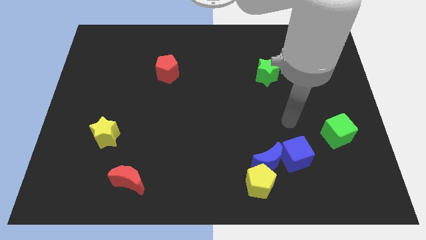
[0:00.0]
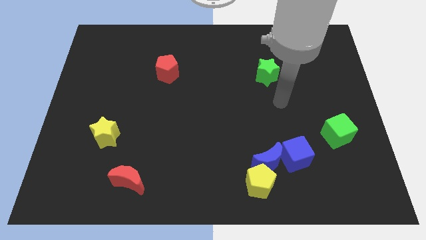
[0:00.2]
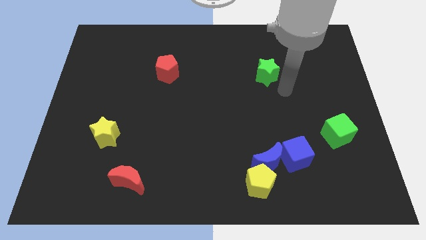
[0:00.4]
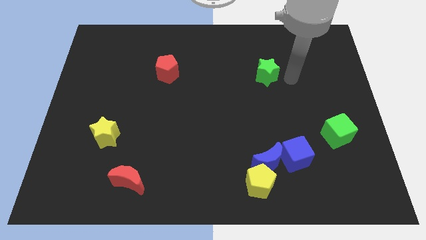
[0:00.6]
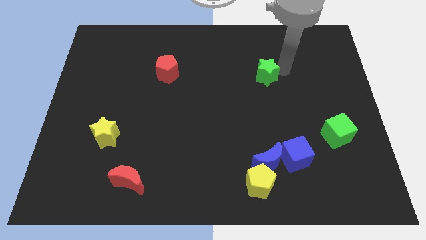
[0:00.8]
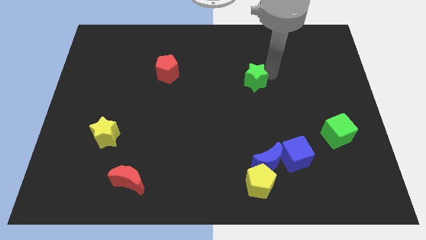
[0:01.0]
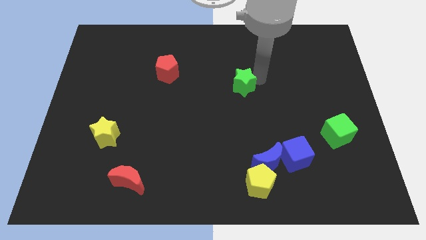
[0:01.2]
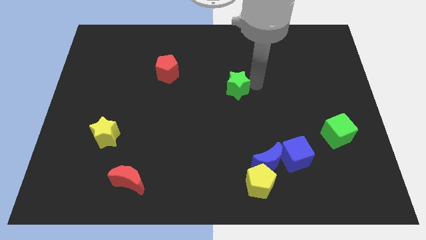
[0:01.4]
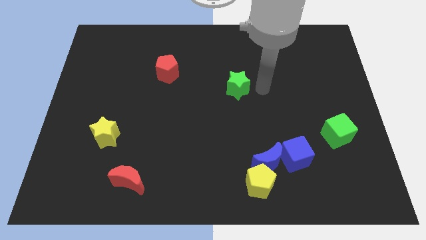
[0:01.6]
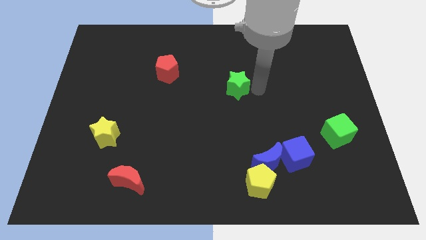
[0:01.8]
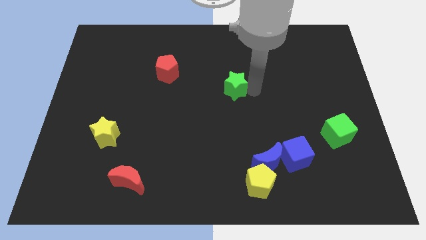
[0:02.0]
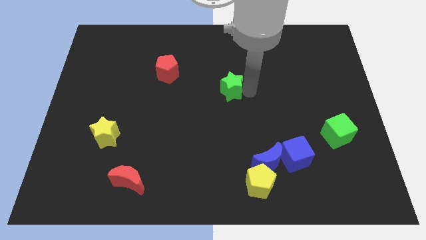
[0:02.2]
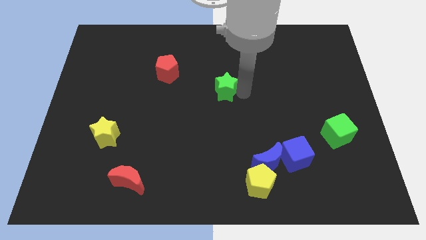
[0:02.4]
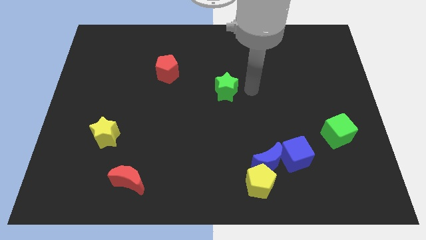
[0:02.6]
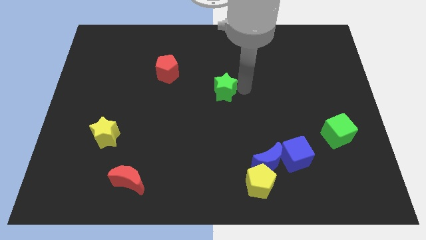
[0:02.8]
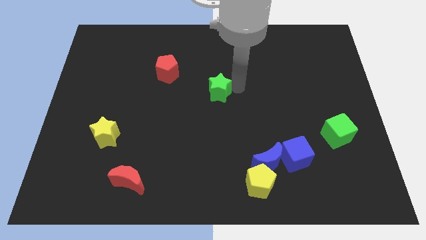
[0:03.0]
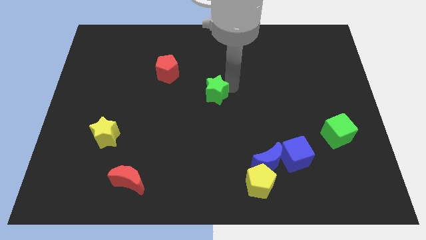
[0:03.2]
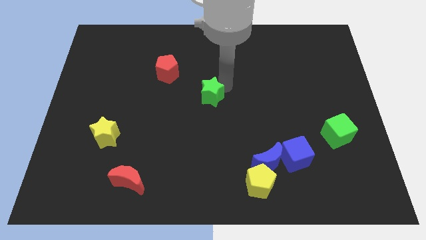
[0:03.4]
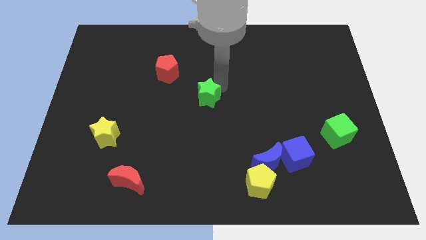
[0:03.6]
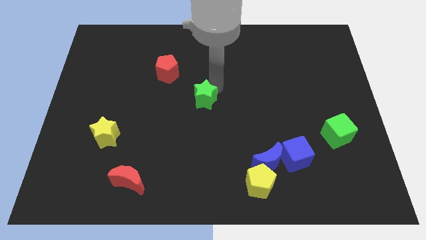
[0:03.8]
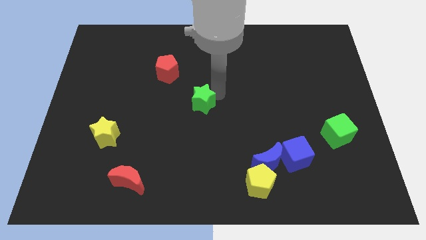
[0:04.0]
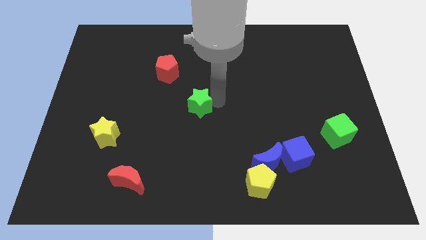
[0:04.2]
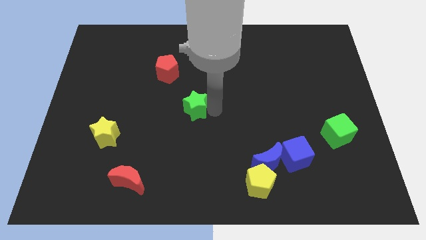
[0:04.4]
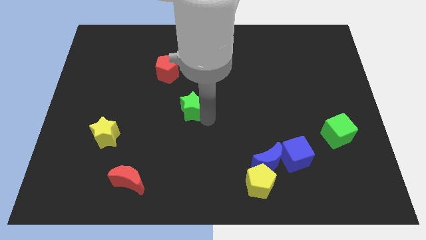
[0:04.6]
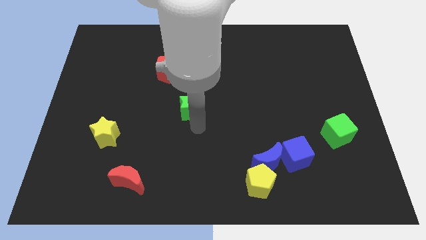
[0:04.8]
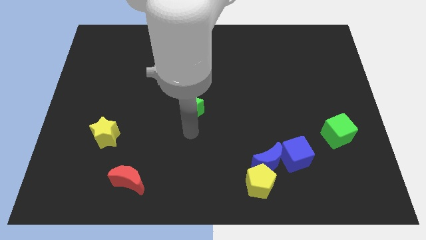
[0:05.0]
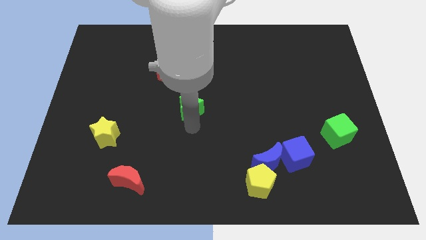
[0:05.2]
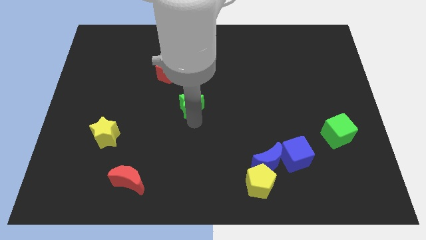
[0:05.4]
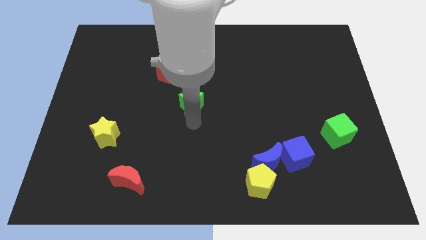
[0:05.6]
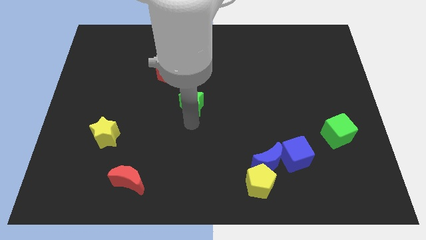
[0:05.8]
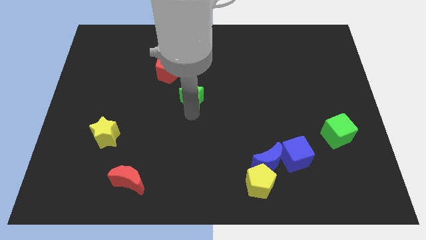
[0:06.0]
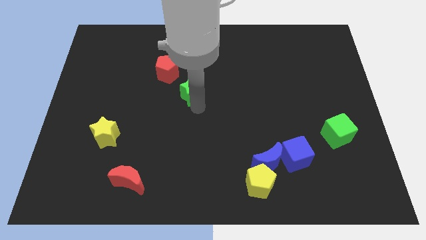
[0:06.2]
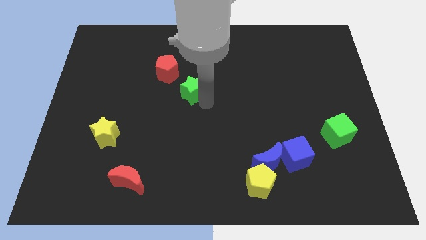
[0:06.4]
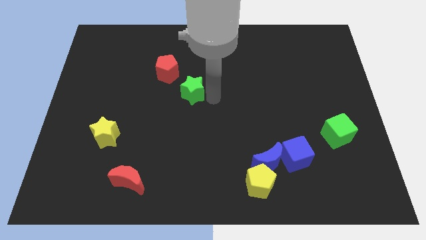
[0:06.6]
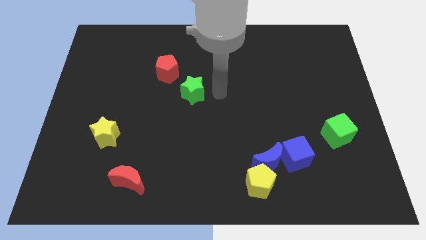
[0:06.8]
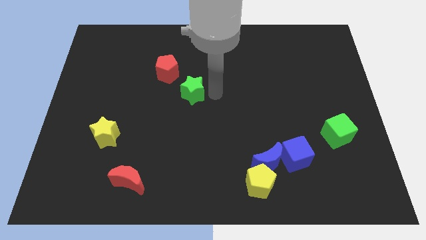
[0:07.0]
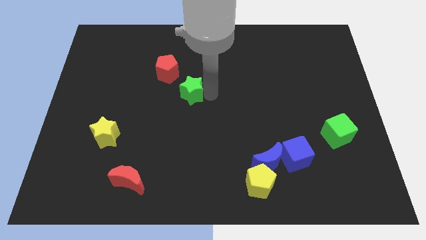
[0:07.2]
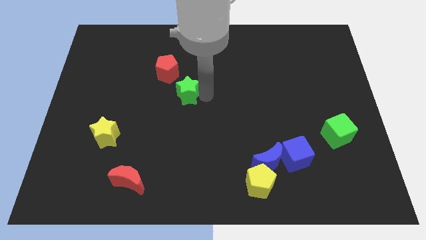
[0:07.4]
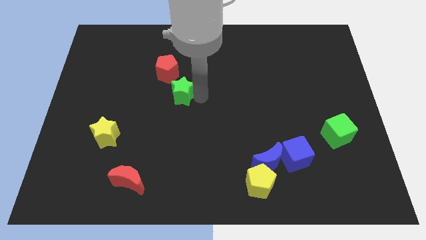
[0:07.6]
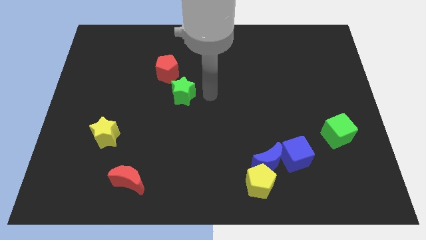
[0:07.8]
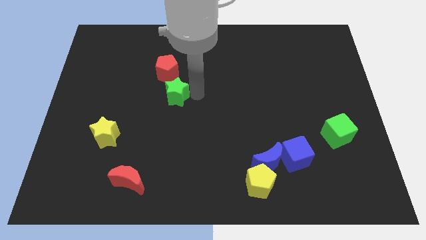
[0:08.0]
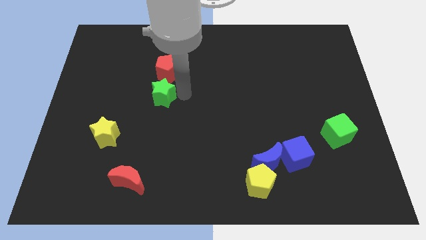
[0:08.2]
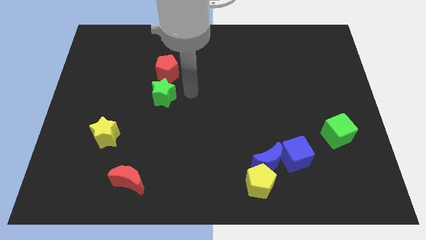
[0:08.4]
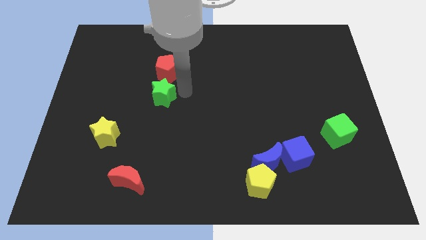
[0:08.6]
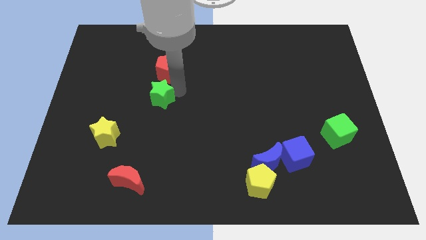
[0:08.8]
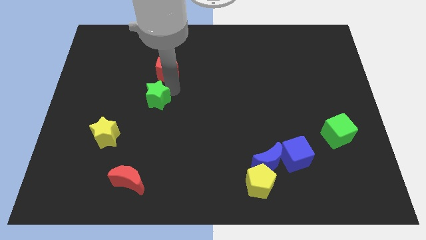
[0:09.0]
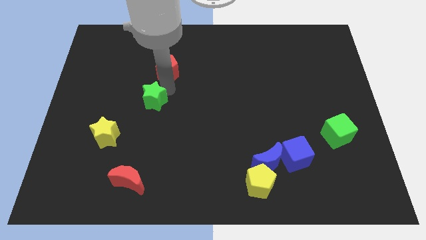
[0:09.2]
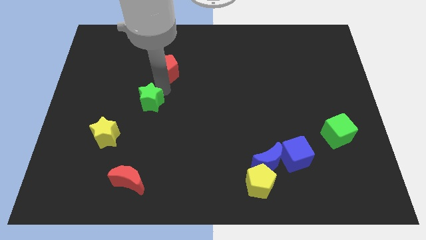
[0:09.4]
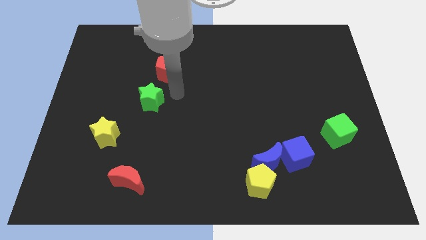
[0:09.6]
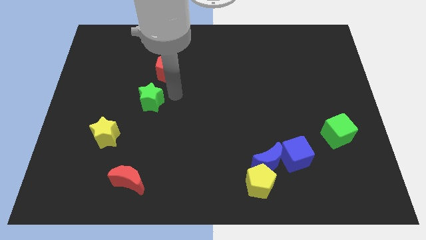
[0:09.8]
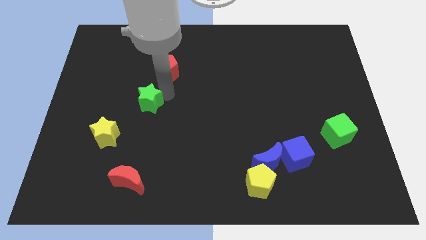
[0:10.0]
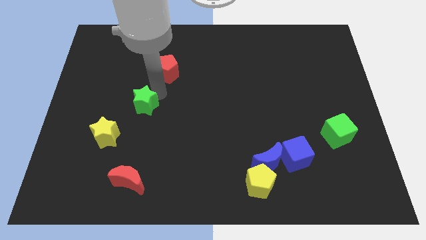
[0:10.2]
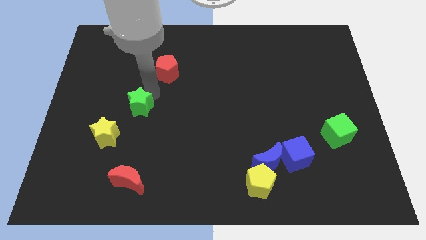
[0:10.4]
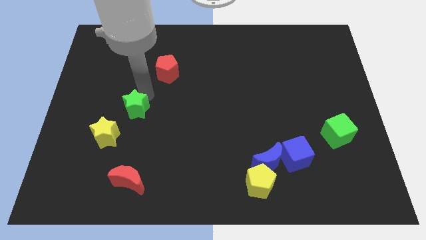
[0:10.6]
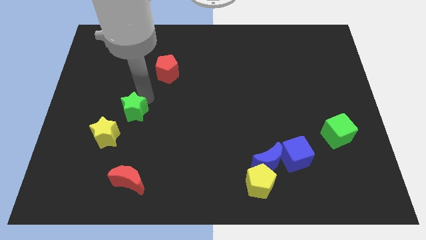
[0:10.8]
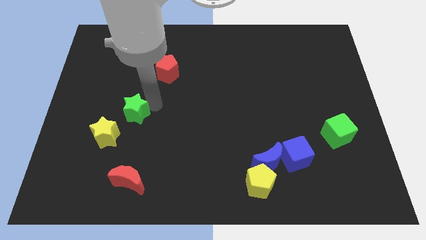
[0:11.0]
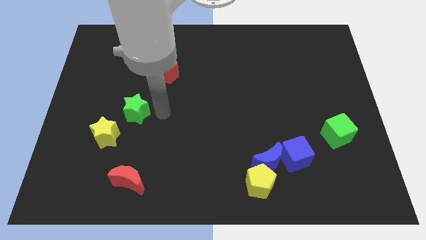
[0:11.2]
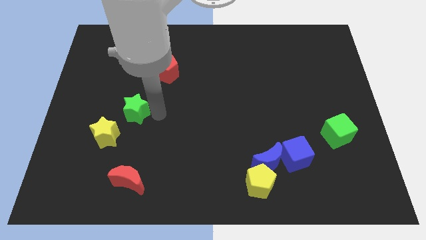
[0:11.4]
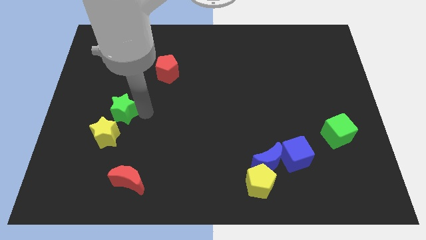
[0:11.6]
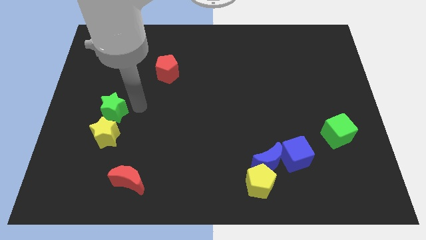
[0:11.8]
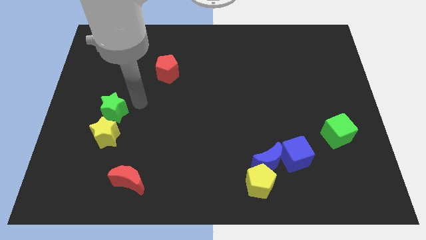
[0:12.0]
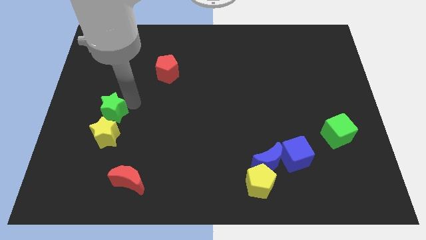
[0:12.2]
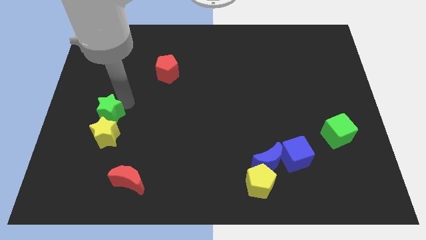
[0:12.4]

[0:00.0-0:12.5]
move the green star diagonally up and to the left of the yellow star

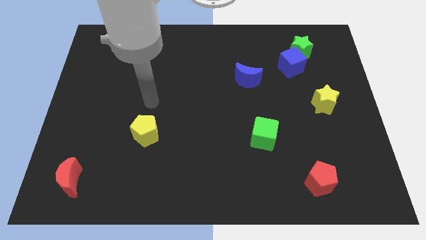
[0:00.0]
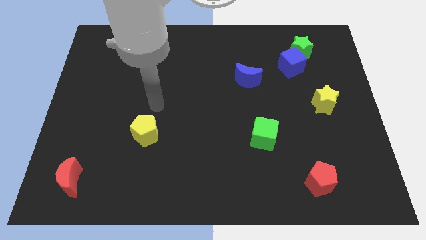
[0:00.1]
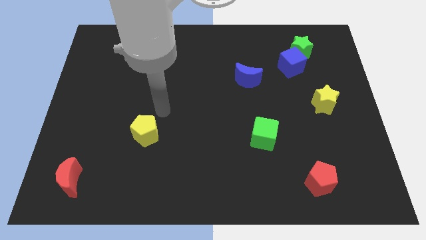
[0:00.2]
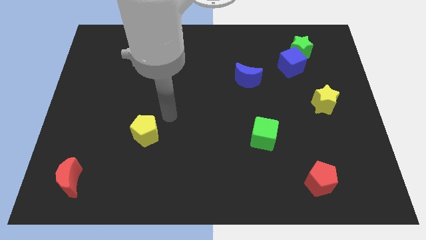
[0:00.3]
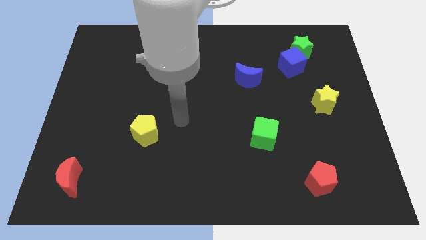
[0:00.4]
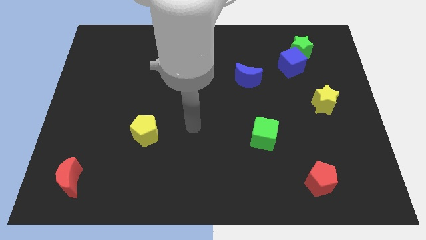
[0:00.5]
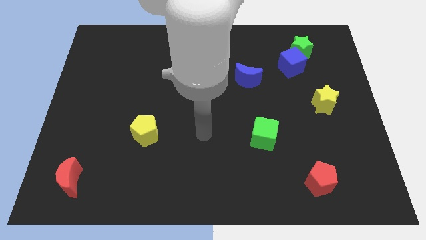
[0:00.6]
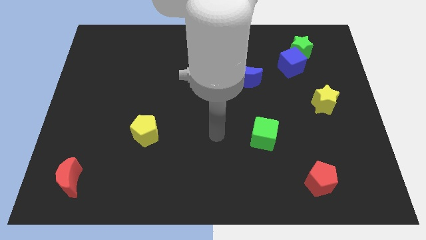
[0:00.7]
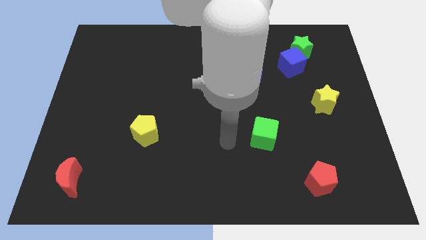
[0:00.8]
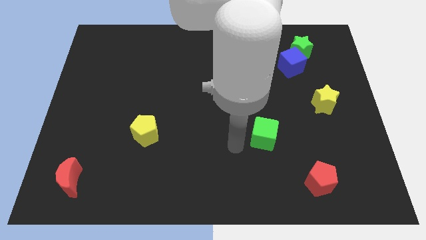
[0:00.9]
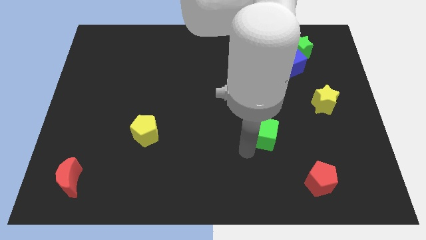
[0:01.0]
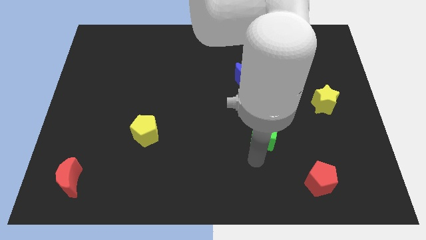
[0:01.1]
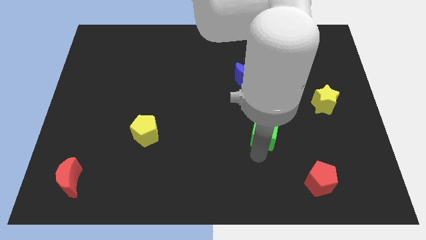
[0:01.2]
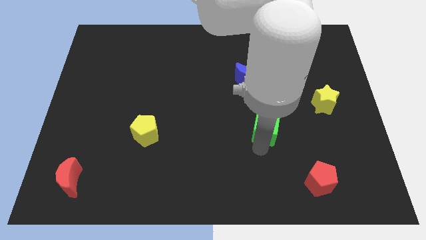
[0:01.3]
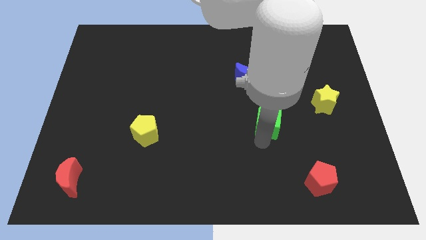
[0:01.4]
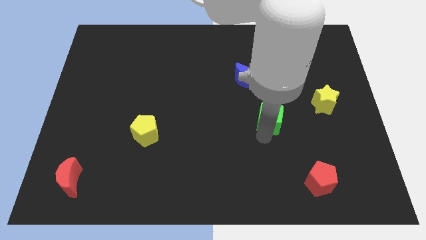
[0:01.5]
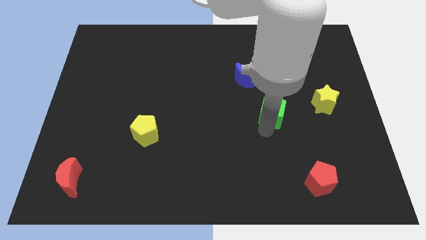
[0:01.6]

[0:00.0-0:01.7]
put the green cube to the left of the yellow star
